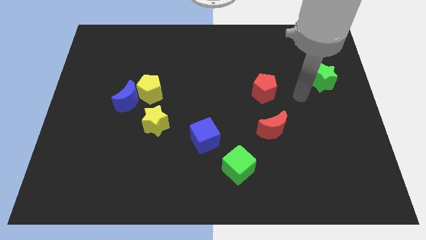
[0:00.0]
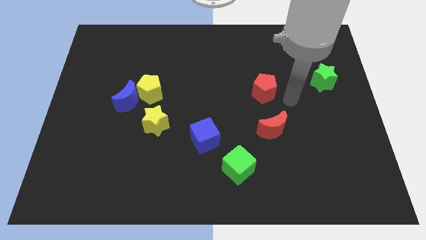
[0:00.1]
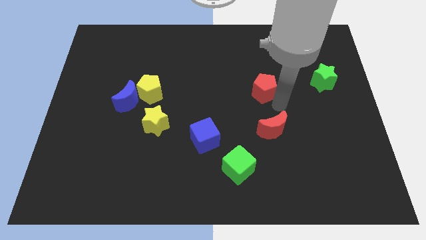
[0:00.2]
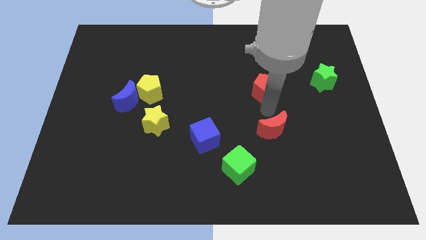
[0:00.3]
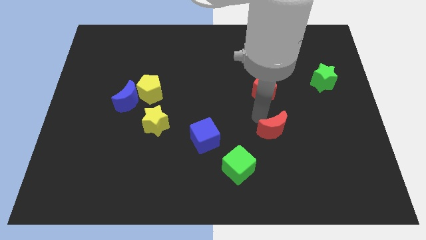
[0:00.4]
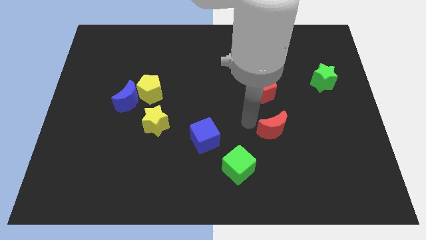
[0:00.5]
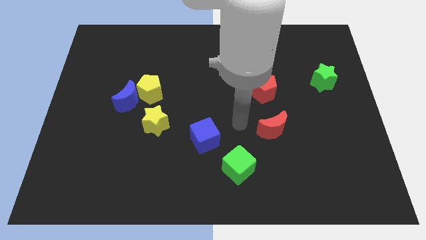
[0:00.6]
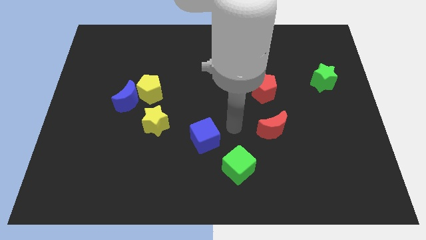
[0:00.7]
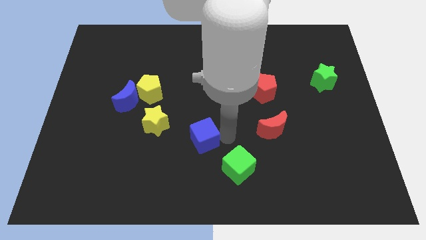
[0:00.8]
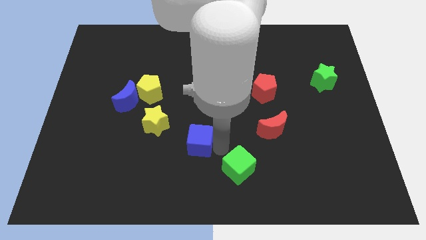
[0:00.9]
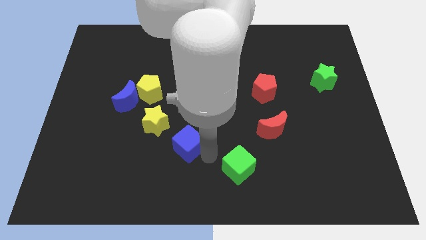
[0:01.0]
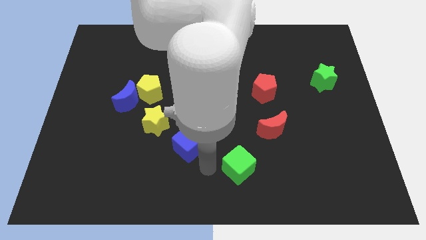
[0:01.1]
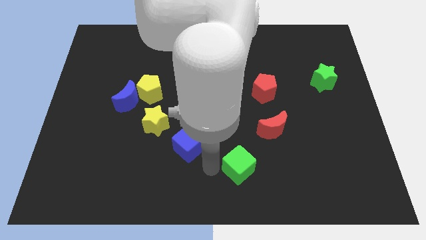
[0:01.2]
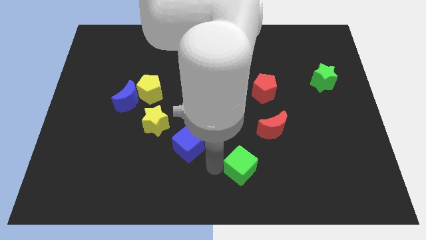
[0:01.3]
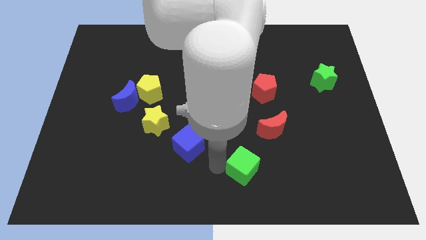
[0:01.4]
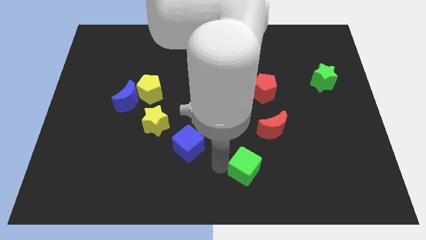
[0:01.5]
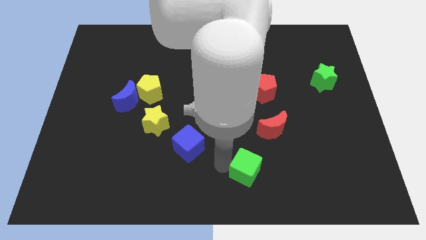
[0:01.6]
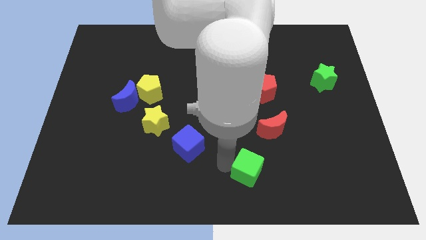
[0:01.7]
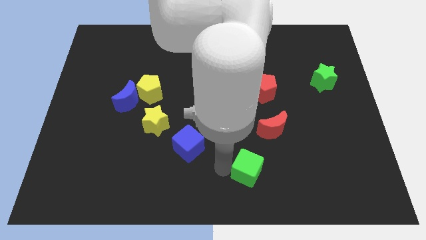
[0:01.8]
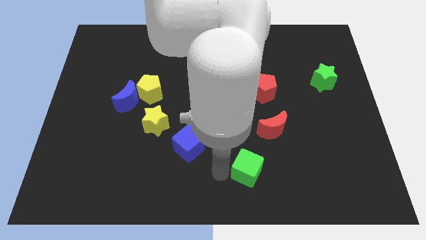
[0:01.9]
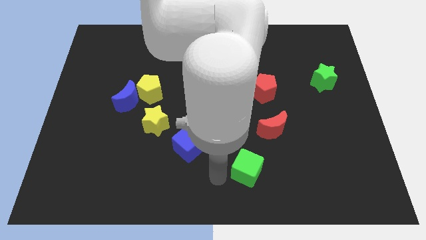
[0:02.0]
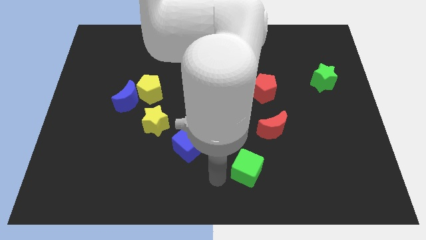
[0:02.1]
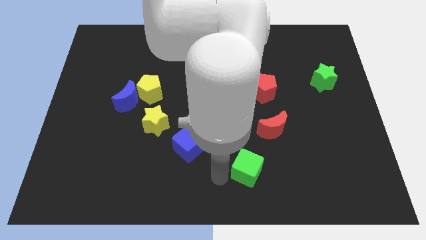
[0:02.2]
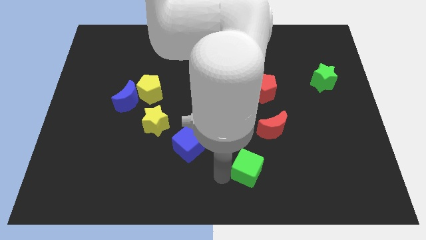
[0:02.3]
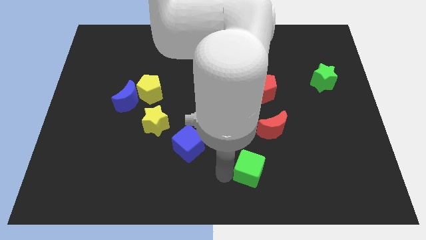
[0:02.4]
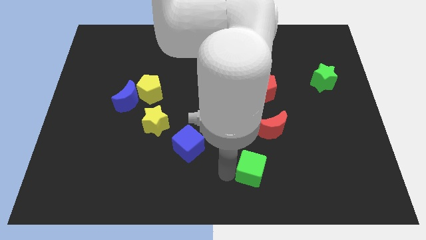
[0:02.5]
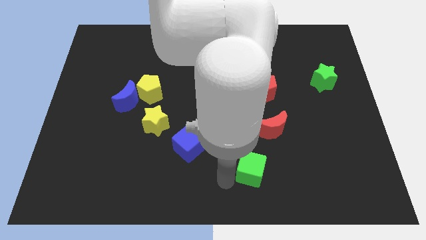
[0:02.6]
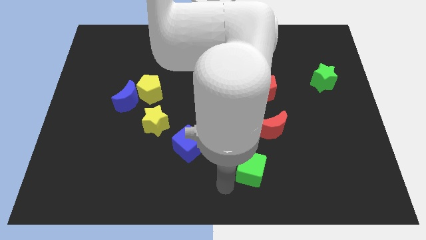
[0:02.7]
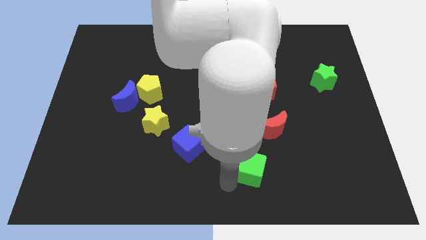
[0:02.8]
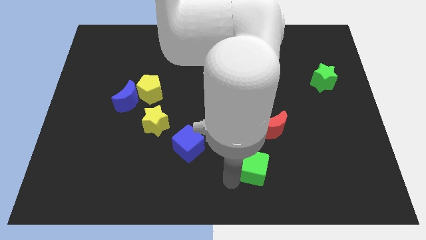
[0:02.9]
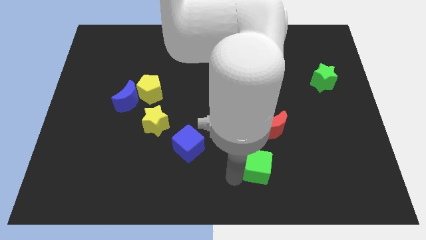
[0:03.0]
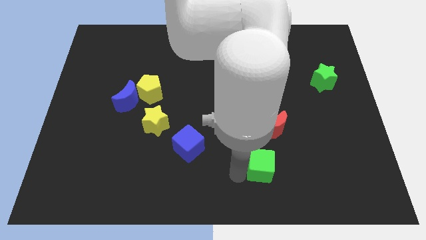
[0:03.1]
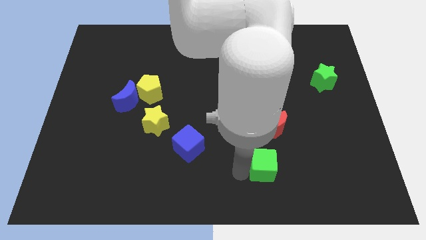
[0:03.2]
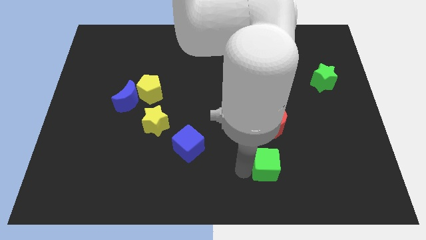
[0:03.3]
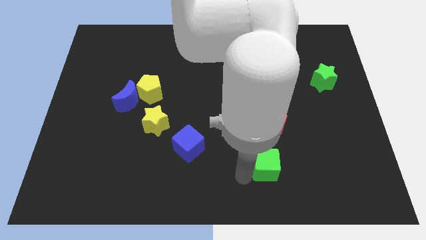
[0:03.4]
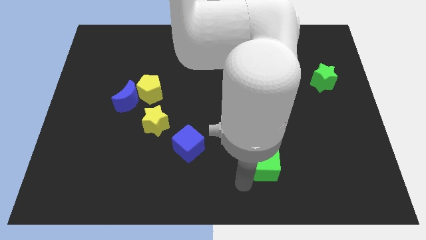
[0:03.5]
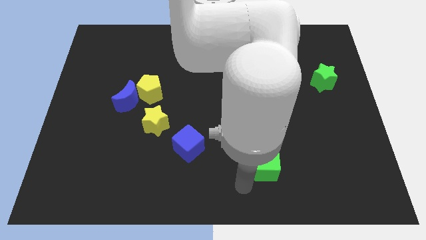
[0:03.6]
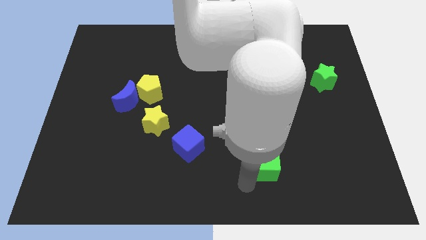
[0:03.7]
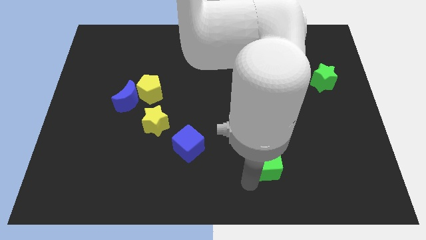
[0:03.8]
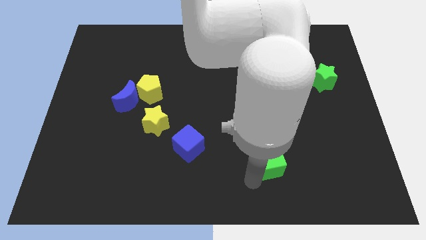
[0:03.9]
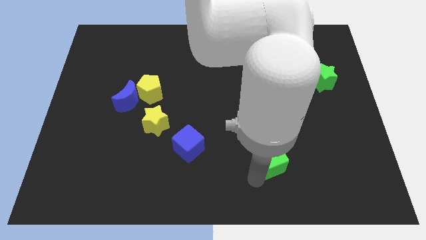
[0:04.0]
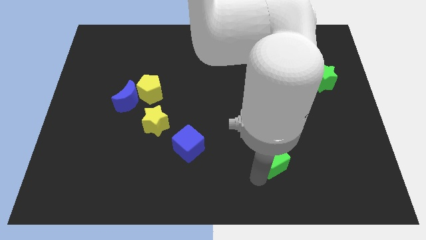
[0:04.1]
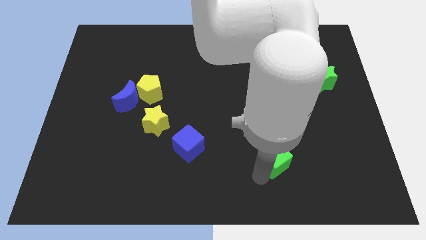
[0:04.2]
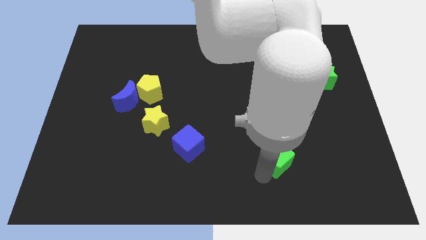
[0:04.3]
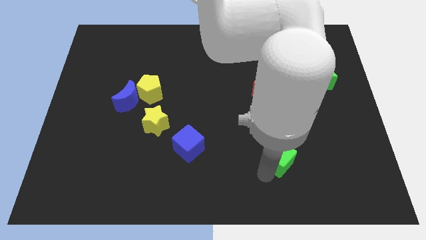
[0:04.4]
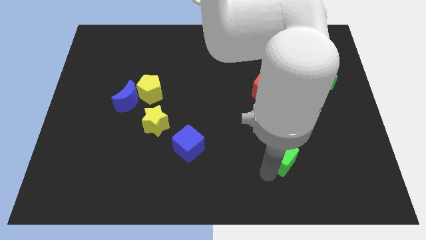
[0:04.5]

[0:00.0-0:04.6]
push the green cube slightly diagonally upwards and to the right

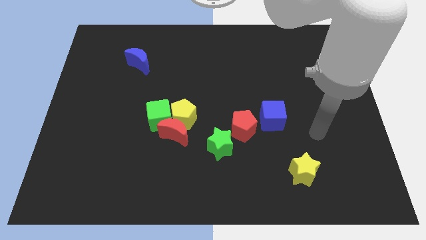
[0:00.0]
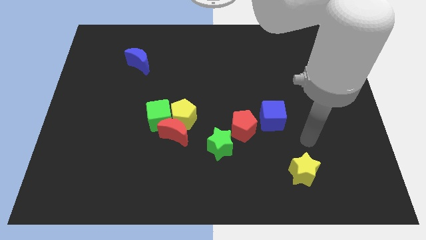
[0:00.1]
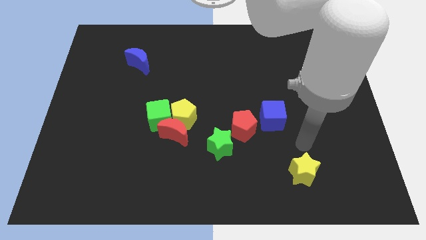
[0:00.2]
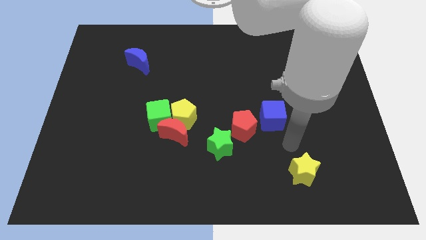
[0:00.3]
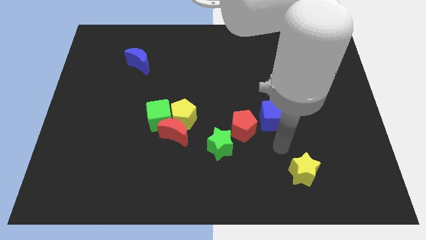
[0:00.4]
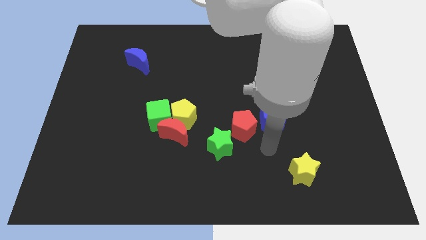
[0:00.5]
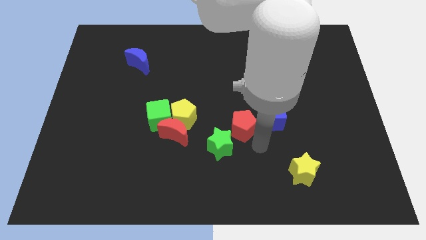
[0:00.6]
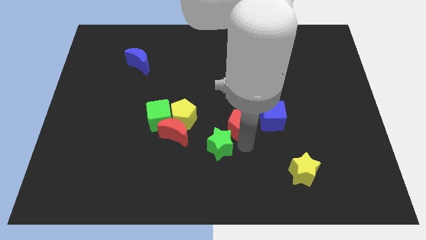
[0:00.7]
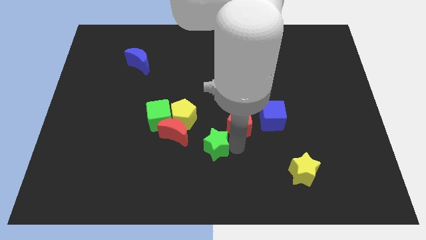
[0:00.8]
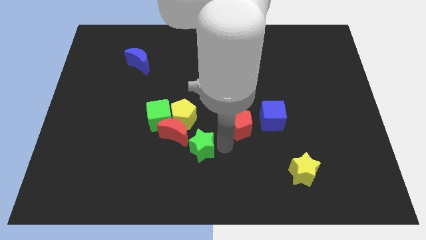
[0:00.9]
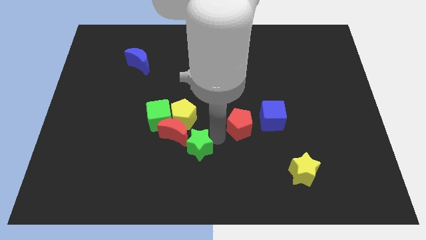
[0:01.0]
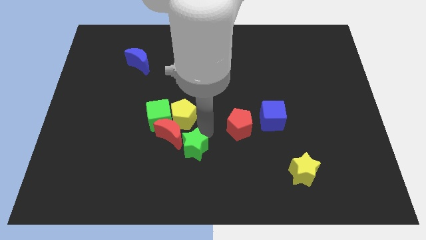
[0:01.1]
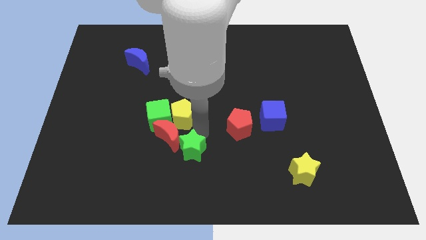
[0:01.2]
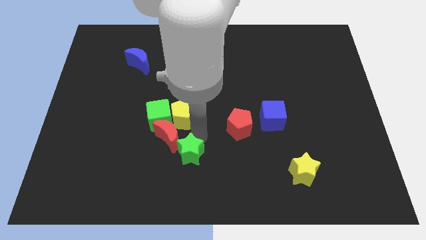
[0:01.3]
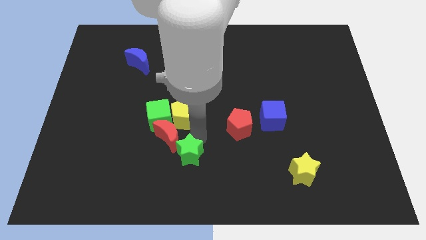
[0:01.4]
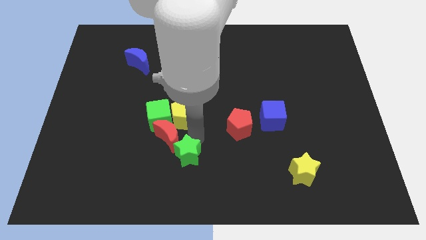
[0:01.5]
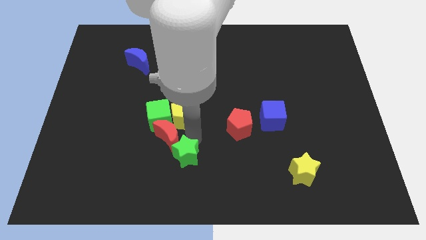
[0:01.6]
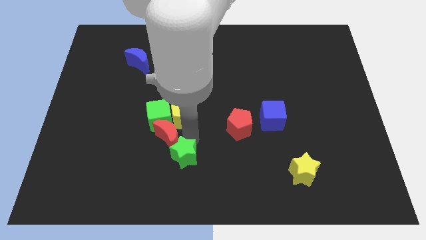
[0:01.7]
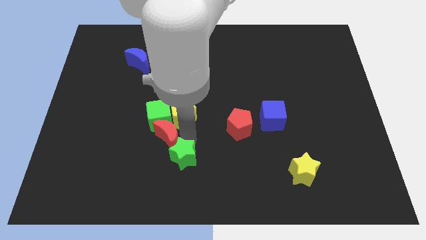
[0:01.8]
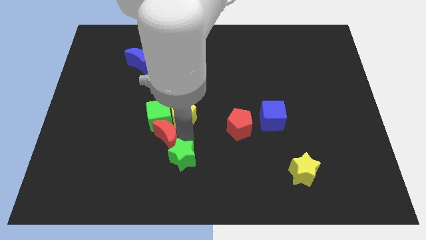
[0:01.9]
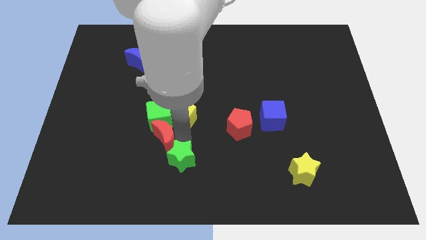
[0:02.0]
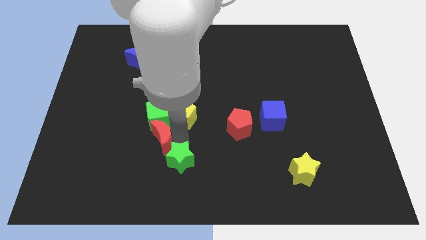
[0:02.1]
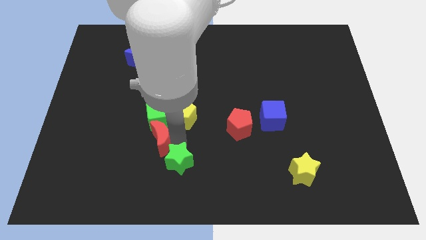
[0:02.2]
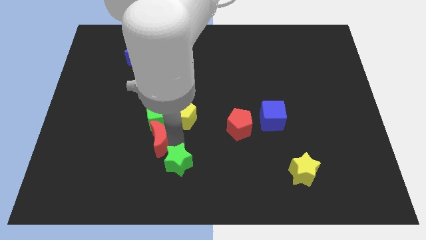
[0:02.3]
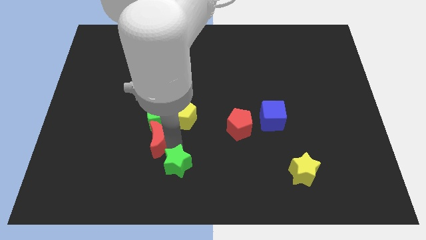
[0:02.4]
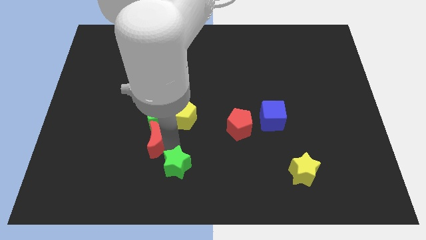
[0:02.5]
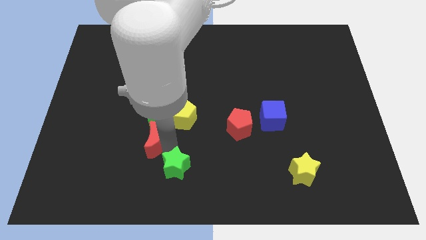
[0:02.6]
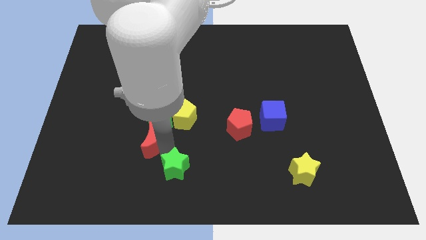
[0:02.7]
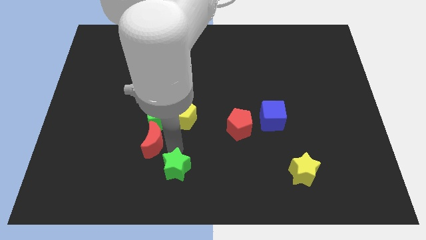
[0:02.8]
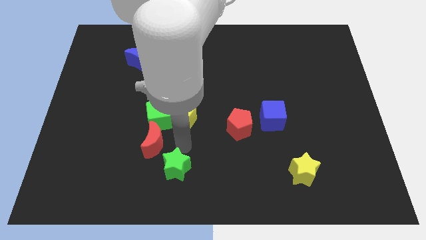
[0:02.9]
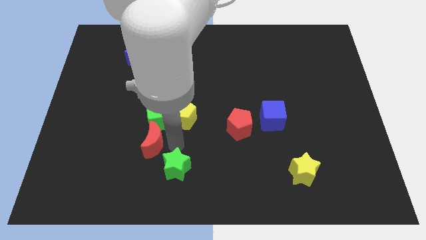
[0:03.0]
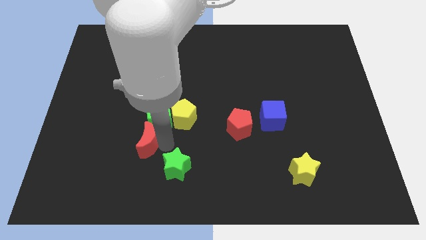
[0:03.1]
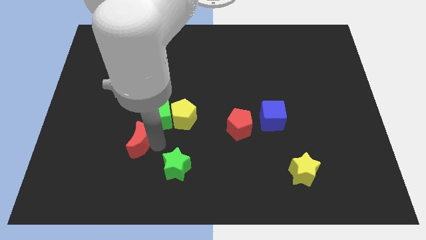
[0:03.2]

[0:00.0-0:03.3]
slightly move the red moon left

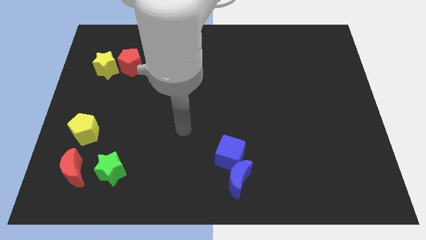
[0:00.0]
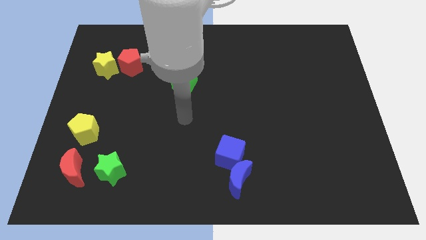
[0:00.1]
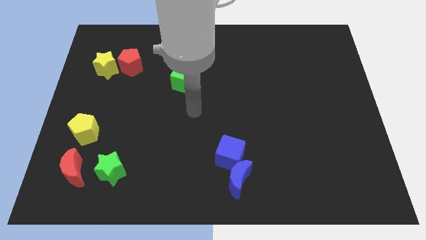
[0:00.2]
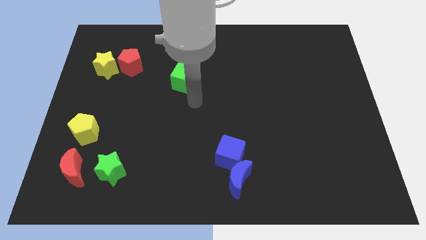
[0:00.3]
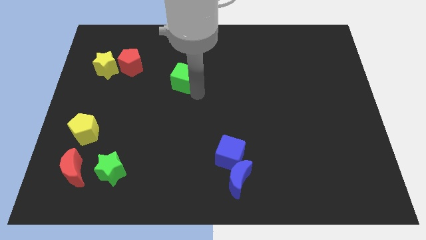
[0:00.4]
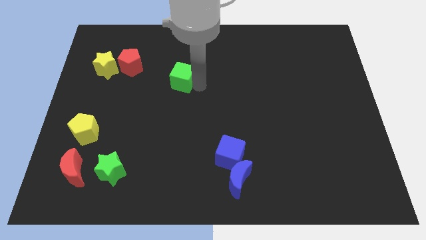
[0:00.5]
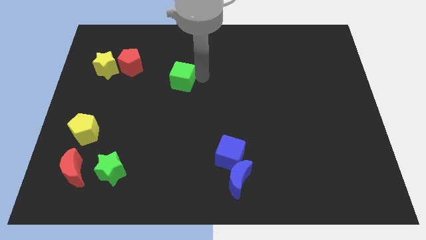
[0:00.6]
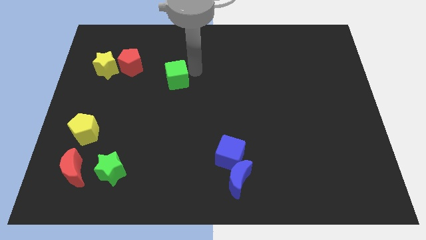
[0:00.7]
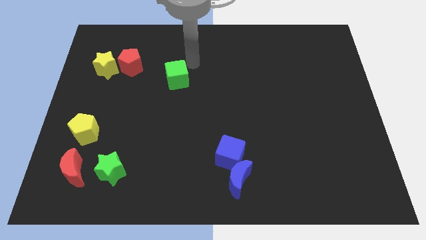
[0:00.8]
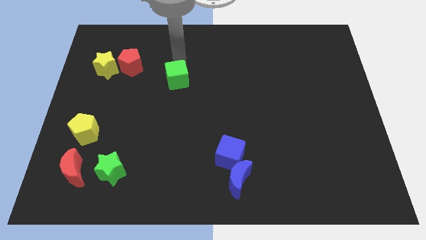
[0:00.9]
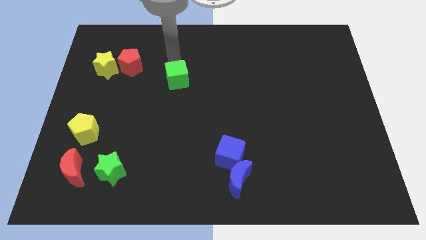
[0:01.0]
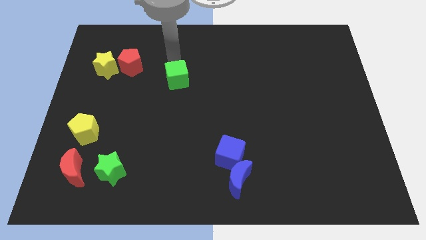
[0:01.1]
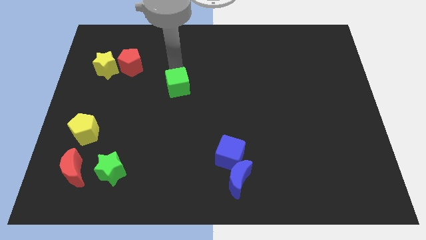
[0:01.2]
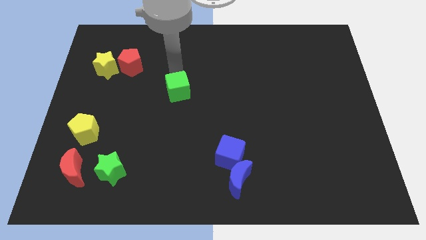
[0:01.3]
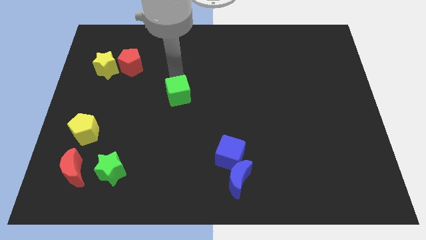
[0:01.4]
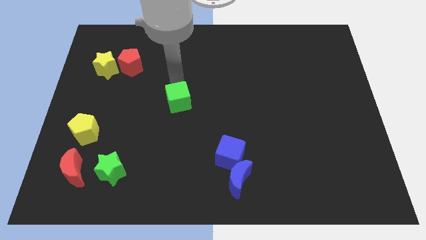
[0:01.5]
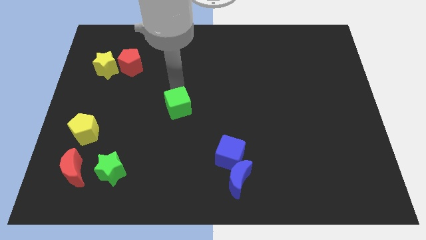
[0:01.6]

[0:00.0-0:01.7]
move the green cube downwards a little
